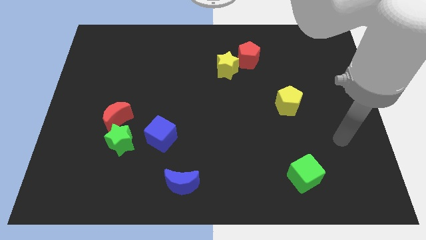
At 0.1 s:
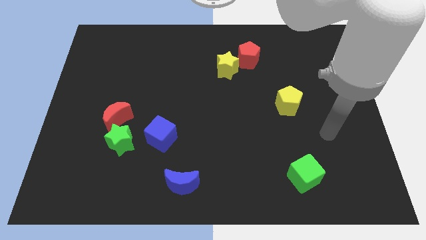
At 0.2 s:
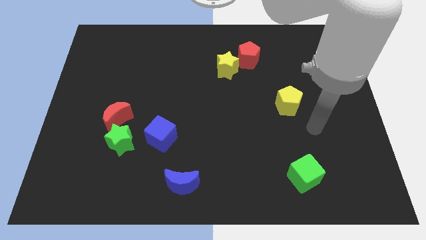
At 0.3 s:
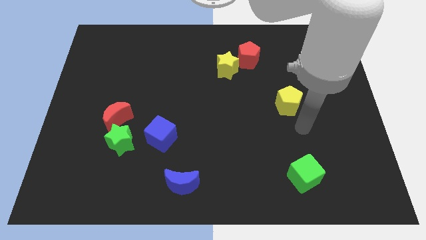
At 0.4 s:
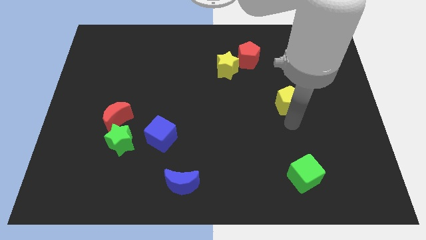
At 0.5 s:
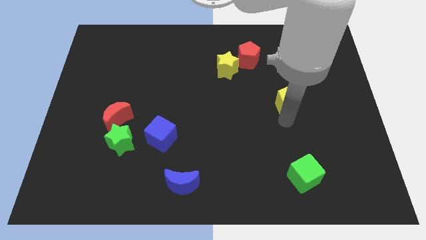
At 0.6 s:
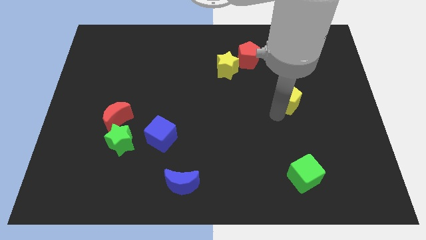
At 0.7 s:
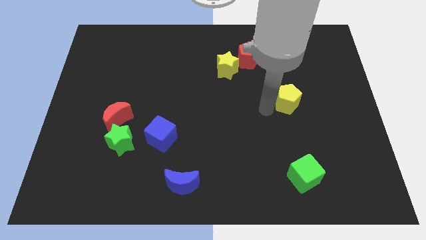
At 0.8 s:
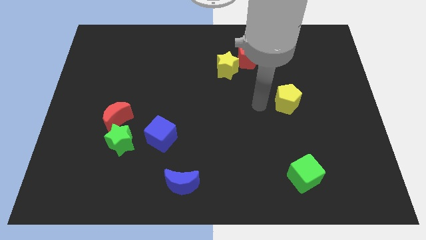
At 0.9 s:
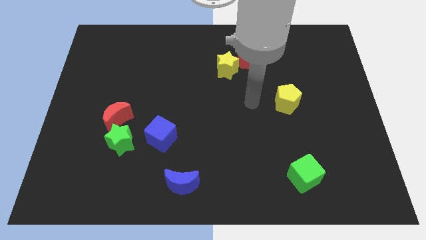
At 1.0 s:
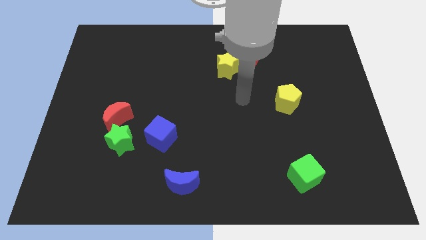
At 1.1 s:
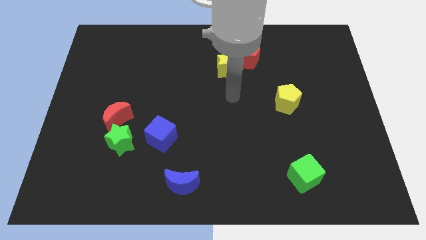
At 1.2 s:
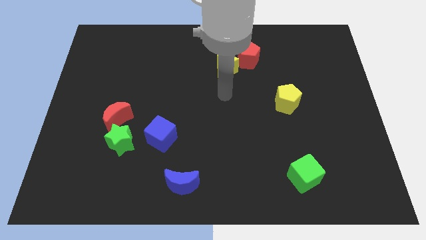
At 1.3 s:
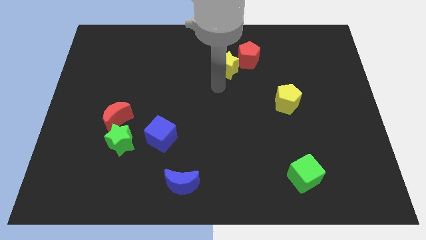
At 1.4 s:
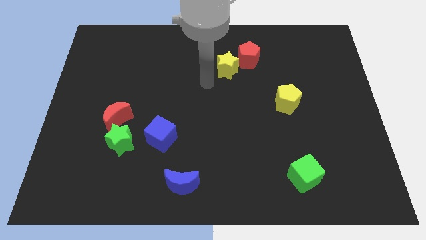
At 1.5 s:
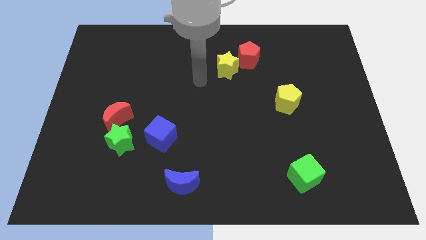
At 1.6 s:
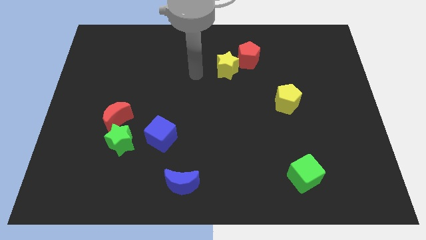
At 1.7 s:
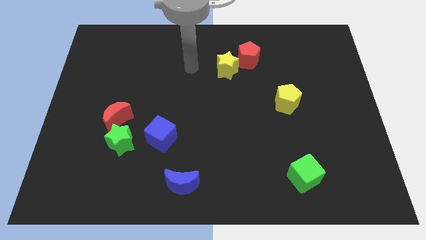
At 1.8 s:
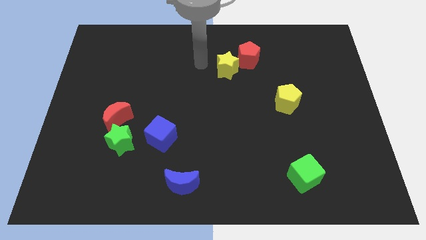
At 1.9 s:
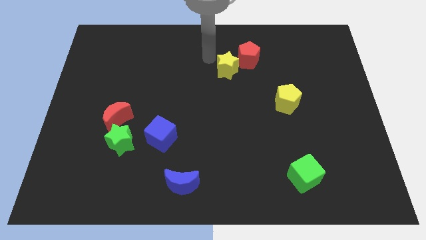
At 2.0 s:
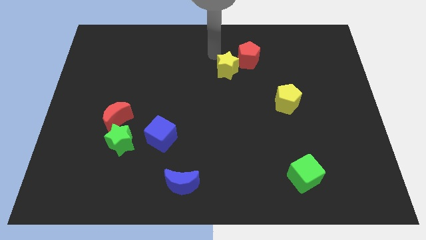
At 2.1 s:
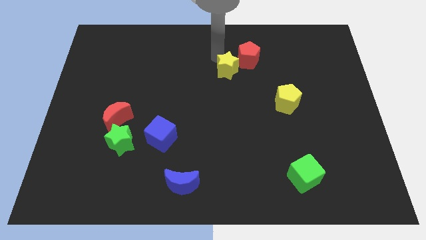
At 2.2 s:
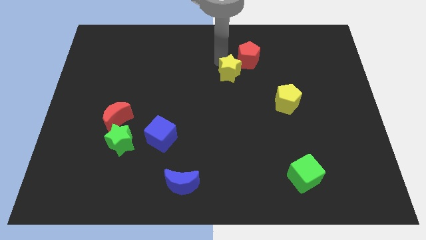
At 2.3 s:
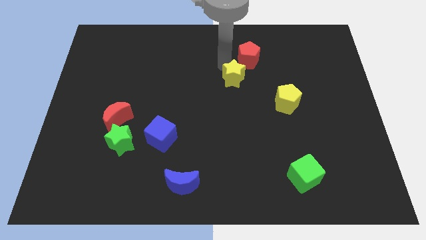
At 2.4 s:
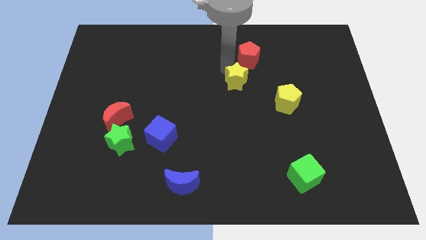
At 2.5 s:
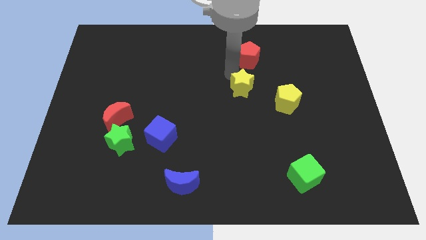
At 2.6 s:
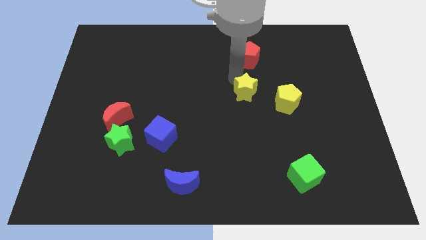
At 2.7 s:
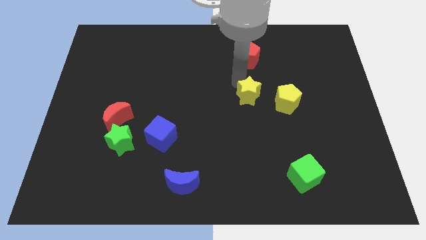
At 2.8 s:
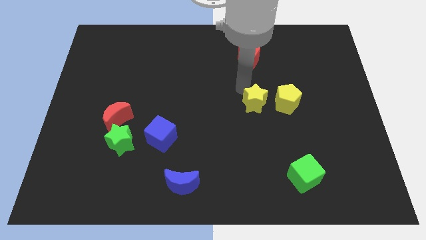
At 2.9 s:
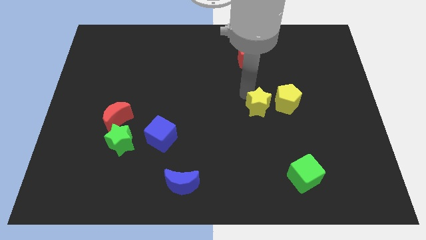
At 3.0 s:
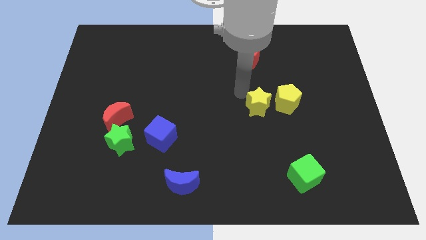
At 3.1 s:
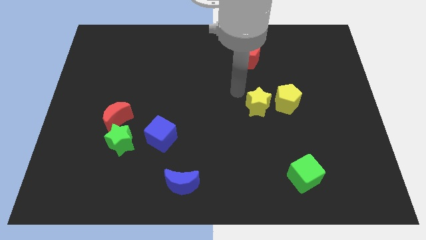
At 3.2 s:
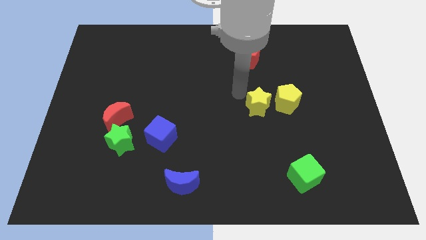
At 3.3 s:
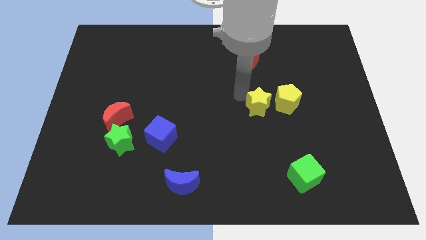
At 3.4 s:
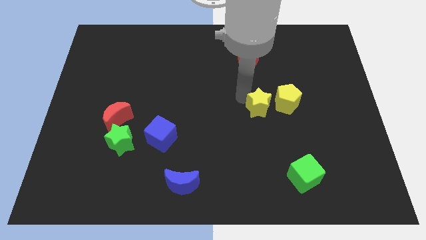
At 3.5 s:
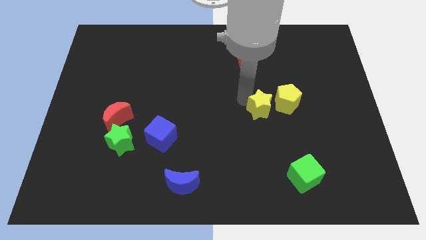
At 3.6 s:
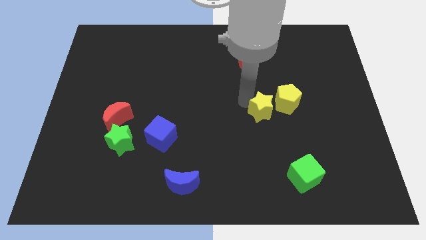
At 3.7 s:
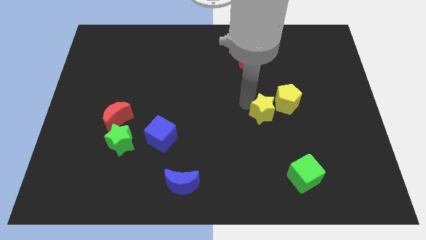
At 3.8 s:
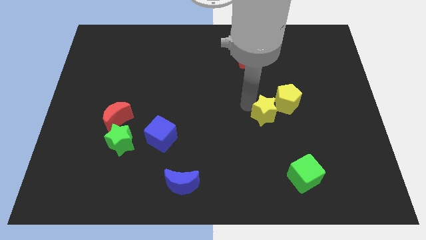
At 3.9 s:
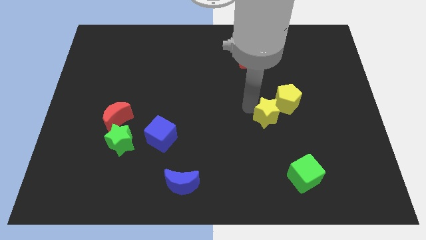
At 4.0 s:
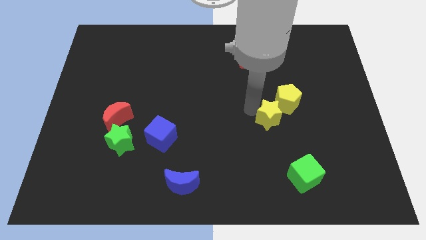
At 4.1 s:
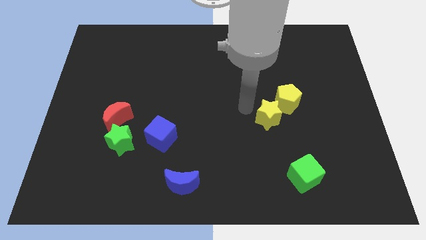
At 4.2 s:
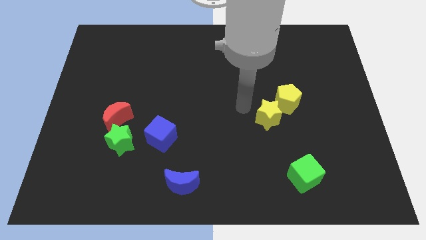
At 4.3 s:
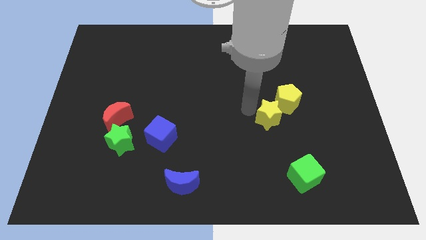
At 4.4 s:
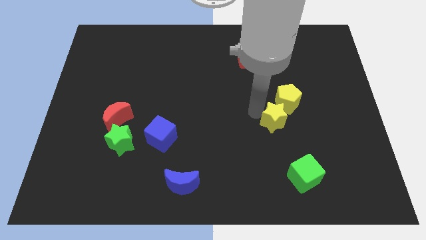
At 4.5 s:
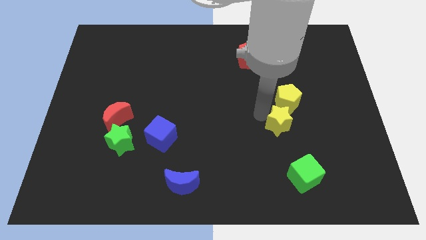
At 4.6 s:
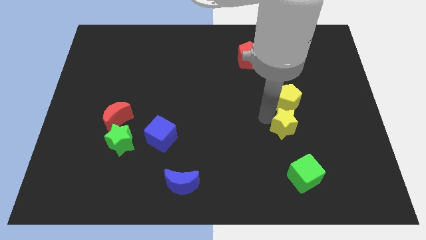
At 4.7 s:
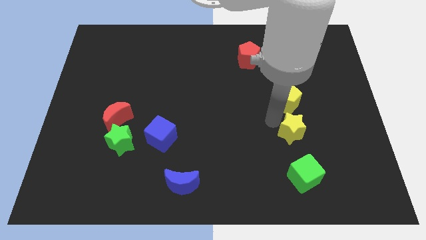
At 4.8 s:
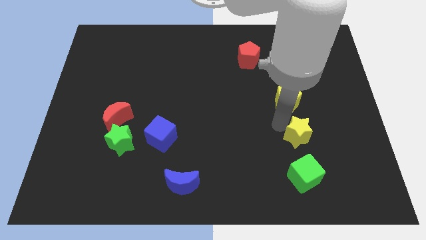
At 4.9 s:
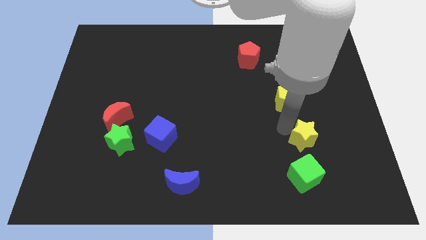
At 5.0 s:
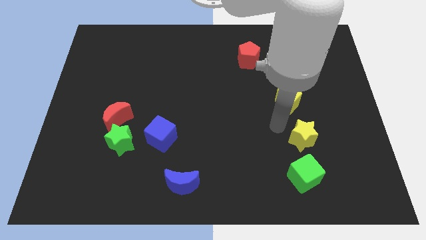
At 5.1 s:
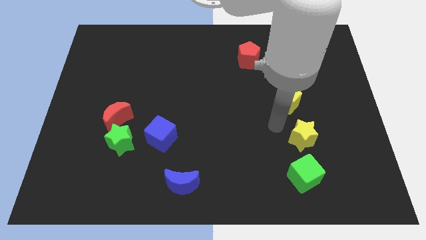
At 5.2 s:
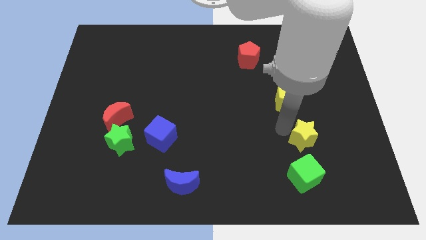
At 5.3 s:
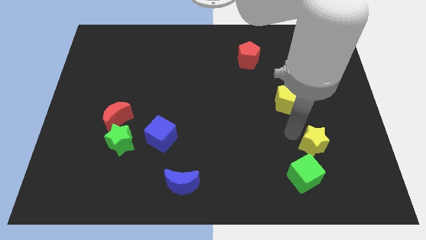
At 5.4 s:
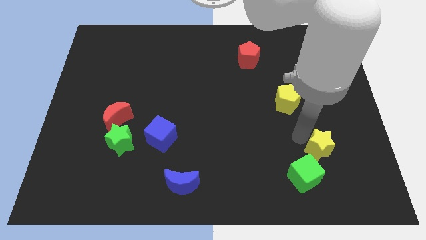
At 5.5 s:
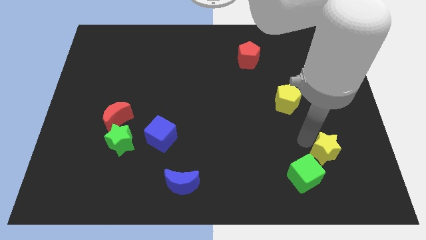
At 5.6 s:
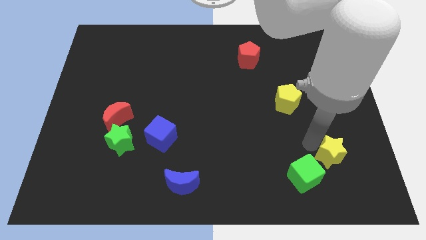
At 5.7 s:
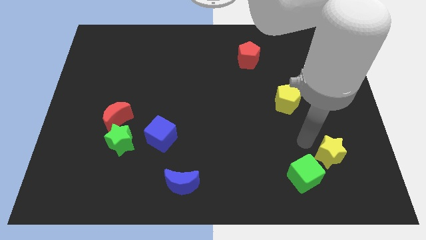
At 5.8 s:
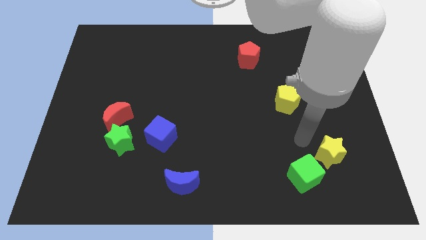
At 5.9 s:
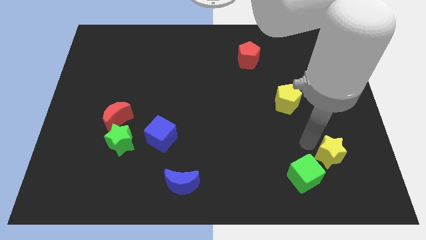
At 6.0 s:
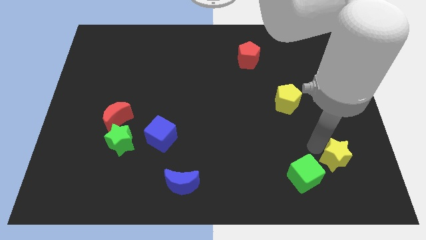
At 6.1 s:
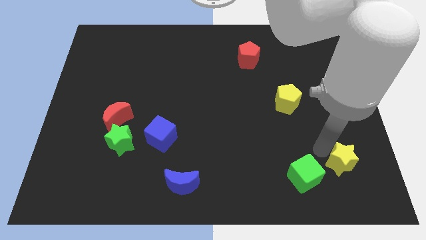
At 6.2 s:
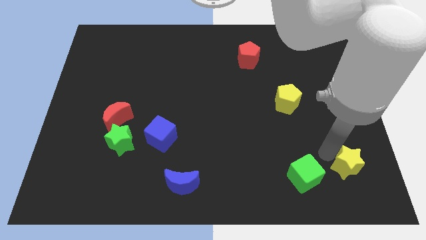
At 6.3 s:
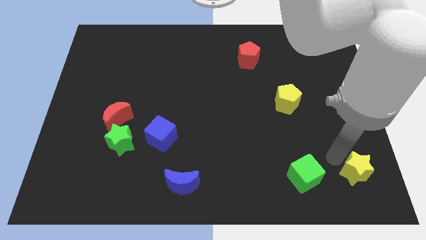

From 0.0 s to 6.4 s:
slide the yellow star to the bottom right corner
